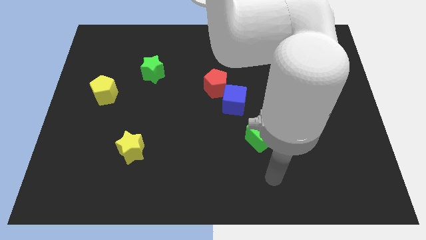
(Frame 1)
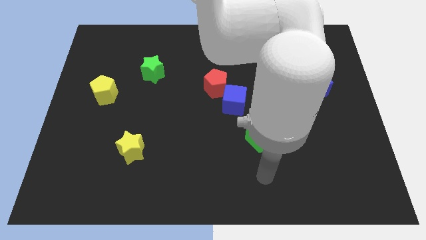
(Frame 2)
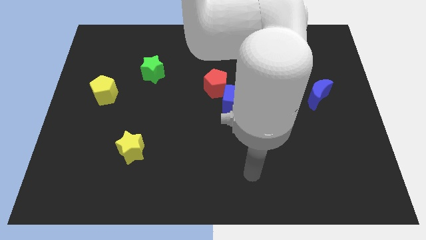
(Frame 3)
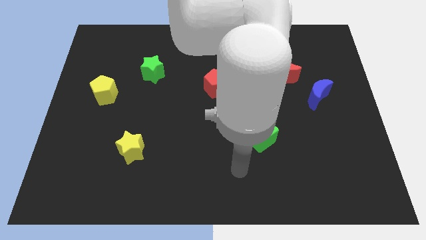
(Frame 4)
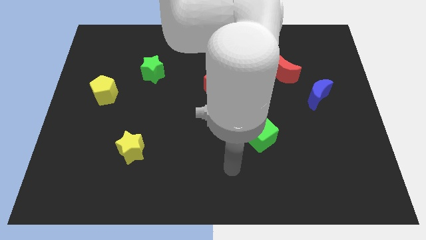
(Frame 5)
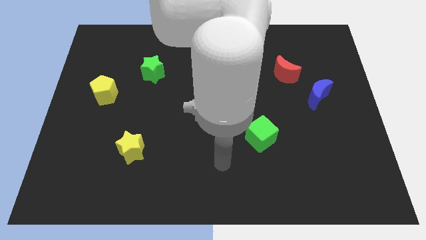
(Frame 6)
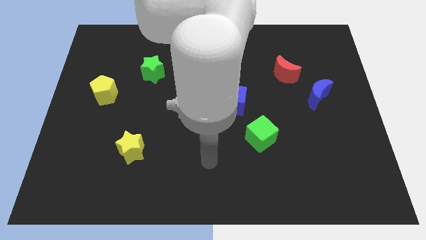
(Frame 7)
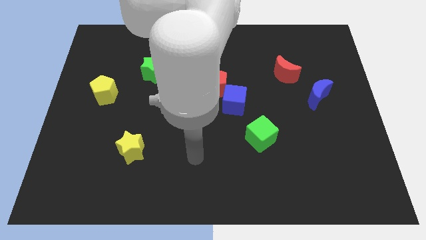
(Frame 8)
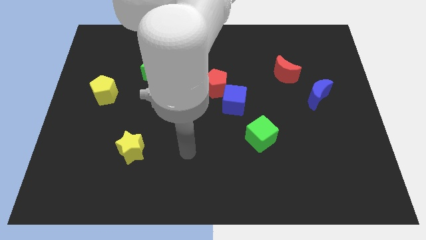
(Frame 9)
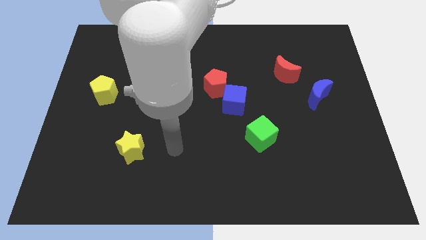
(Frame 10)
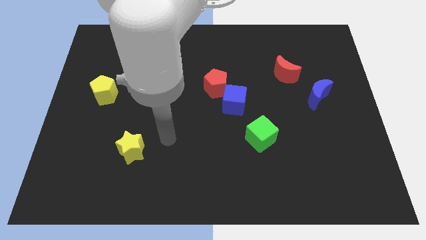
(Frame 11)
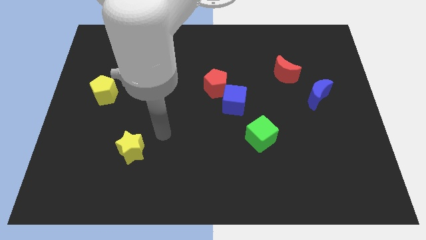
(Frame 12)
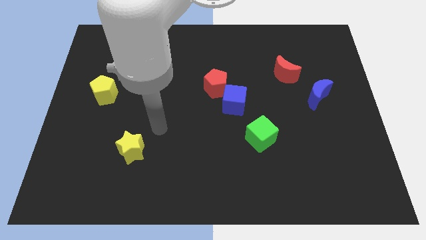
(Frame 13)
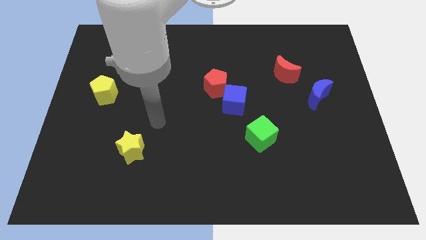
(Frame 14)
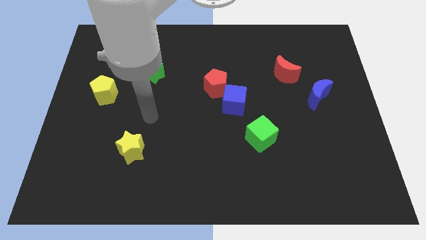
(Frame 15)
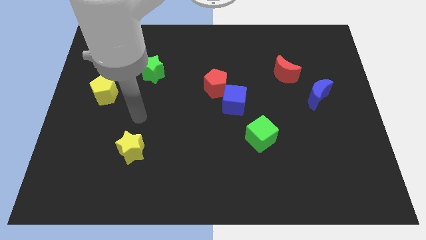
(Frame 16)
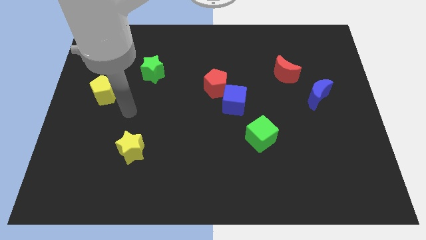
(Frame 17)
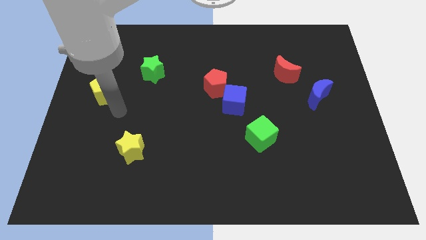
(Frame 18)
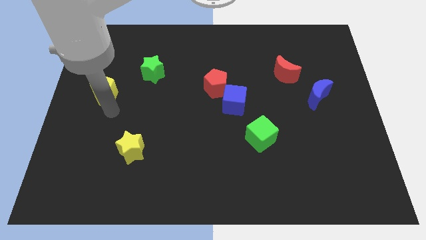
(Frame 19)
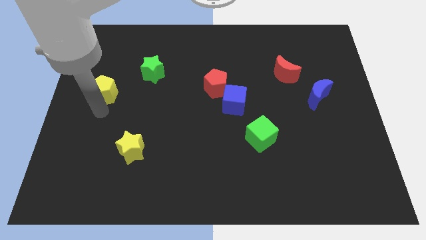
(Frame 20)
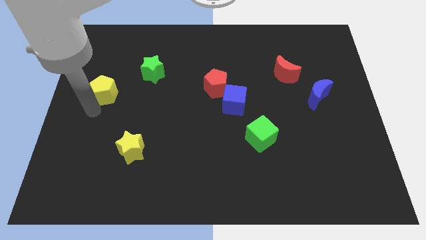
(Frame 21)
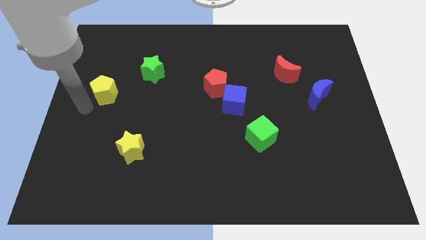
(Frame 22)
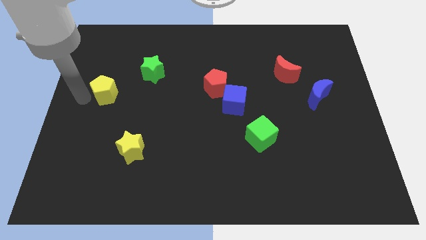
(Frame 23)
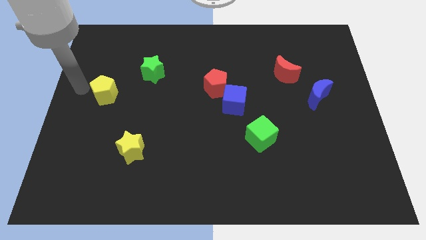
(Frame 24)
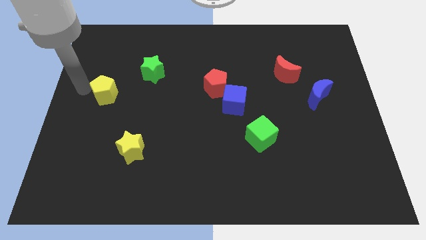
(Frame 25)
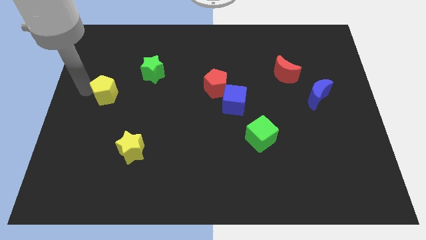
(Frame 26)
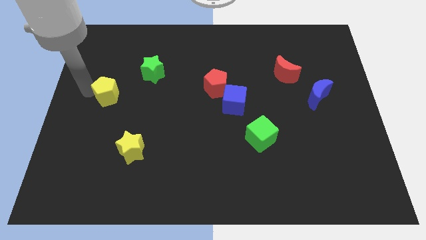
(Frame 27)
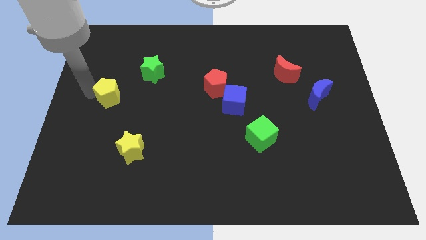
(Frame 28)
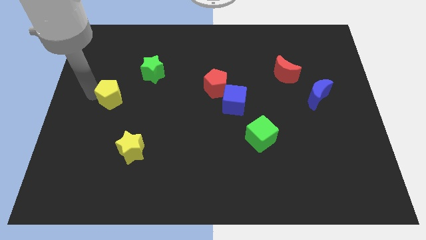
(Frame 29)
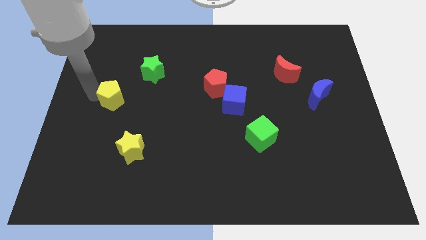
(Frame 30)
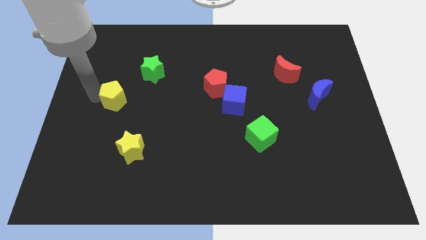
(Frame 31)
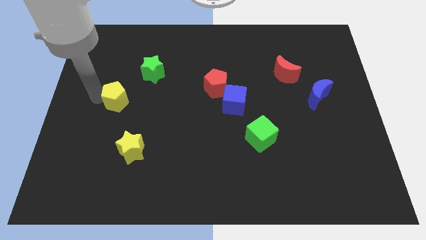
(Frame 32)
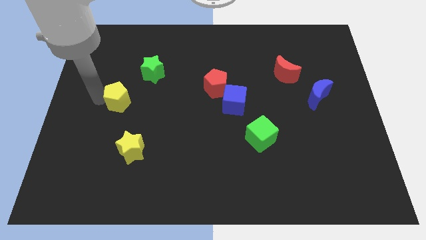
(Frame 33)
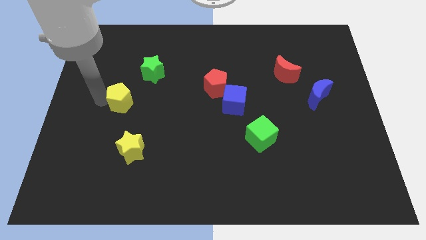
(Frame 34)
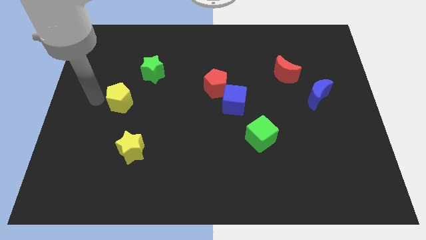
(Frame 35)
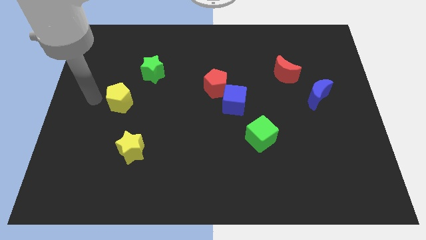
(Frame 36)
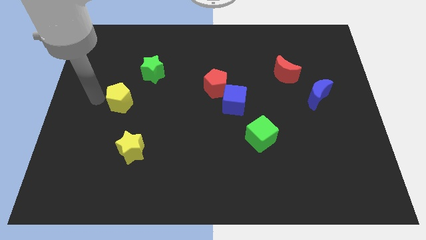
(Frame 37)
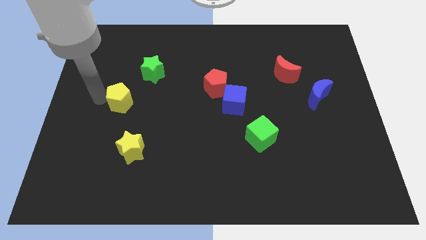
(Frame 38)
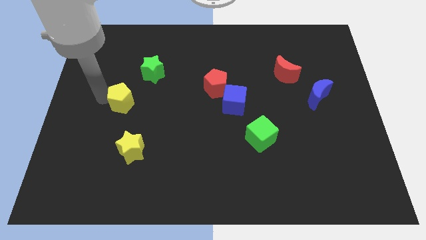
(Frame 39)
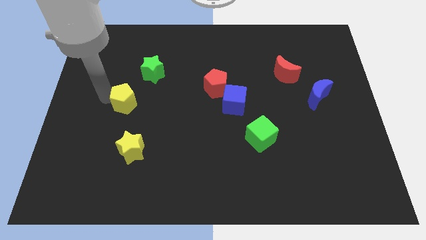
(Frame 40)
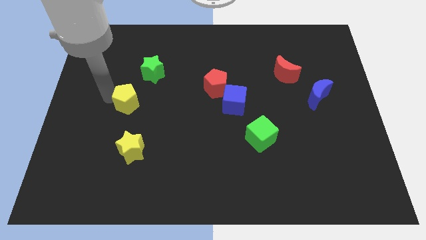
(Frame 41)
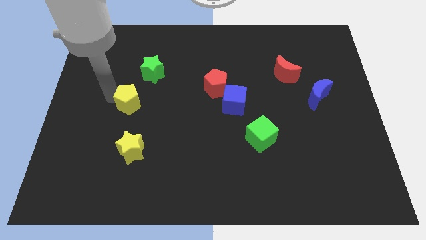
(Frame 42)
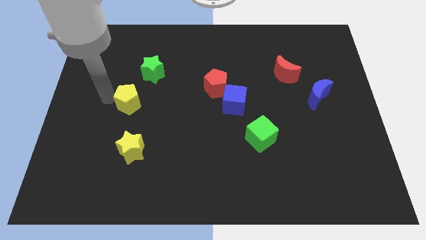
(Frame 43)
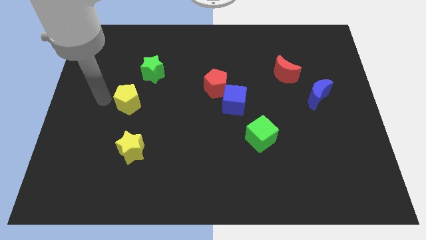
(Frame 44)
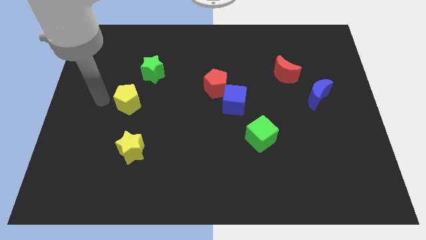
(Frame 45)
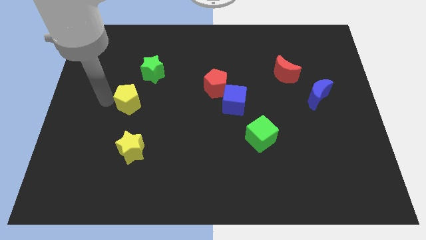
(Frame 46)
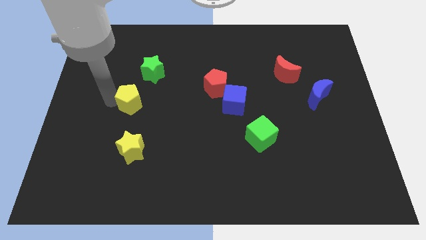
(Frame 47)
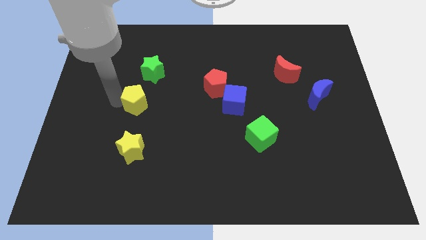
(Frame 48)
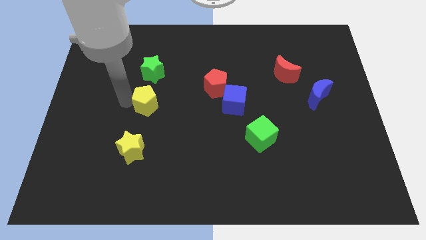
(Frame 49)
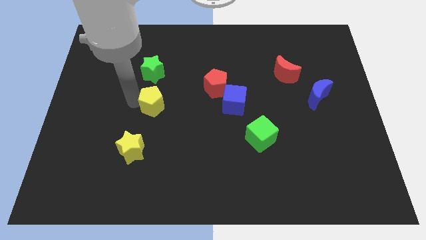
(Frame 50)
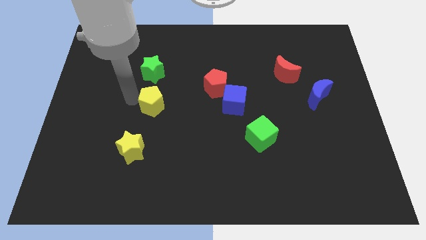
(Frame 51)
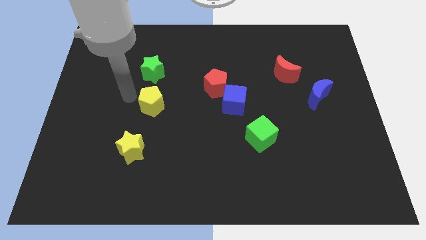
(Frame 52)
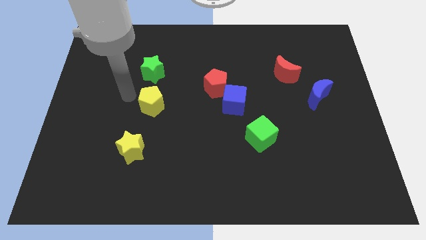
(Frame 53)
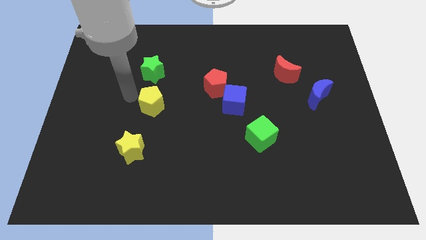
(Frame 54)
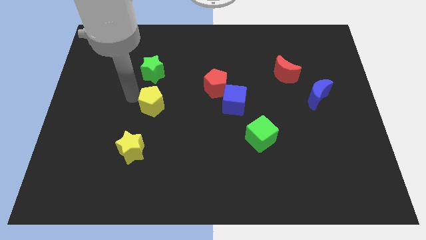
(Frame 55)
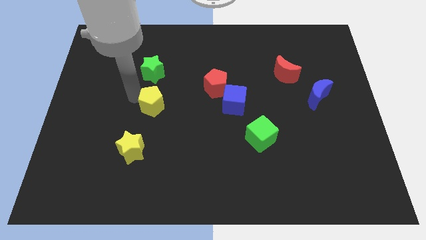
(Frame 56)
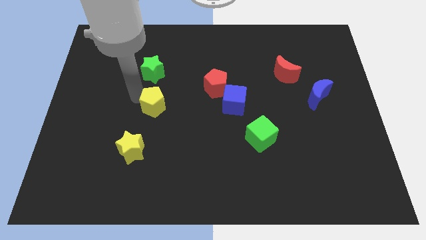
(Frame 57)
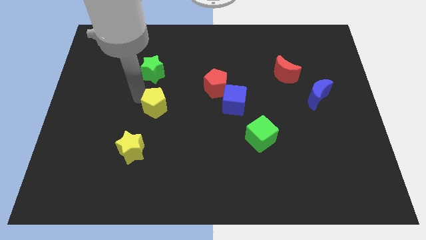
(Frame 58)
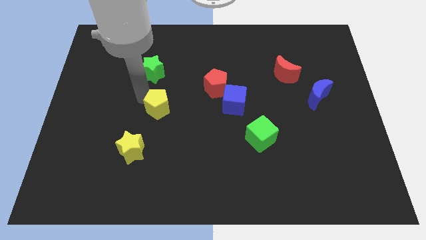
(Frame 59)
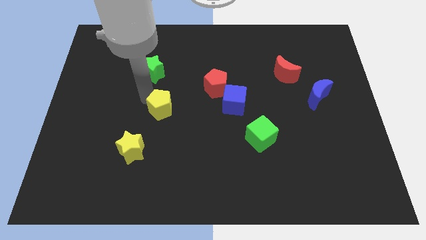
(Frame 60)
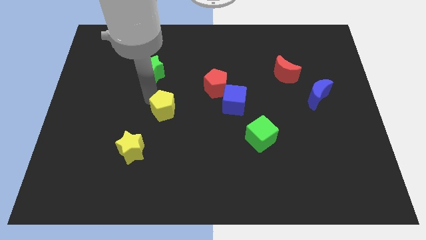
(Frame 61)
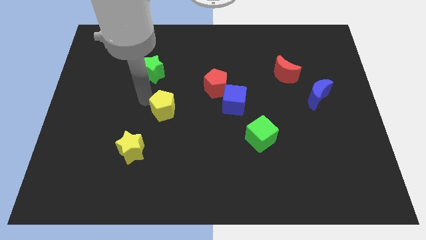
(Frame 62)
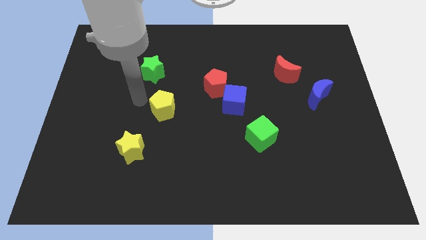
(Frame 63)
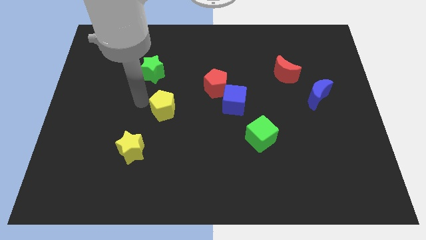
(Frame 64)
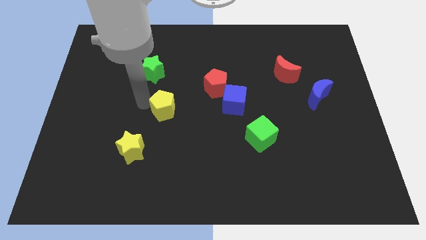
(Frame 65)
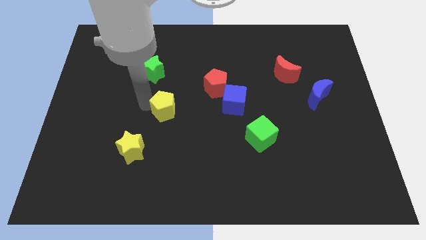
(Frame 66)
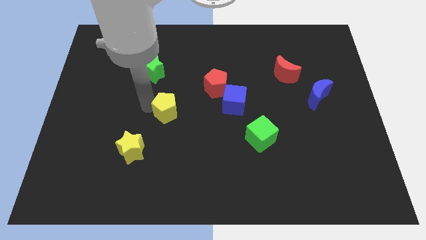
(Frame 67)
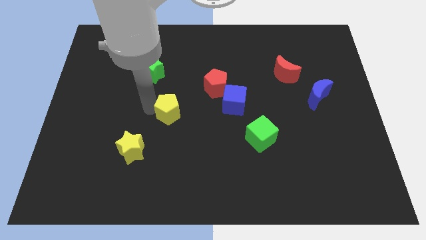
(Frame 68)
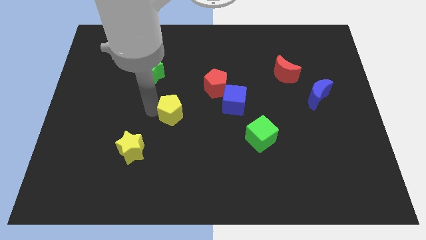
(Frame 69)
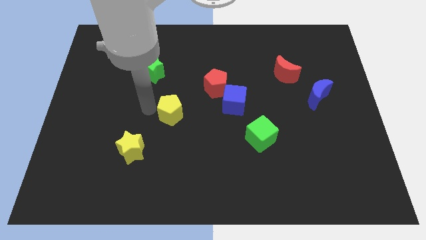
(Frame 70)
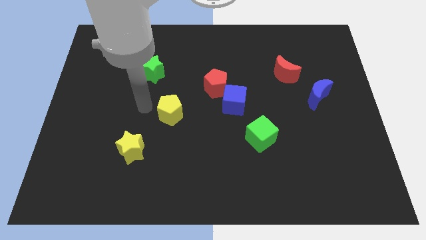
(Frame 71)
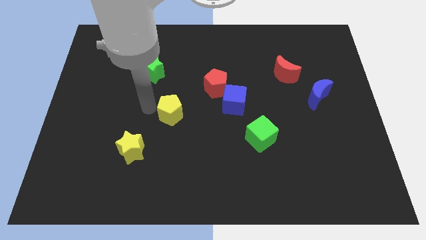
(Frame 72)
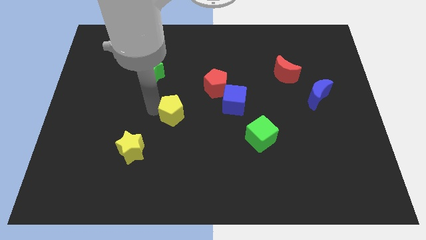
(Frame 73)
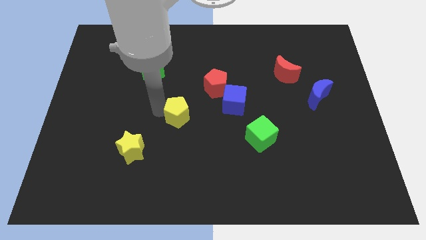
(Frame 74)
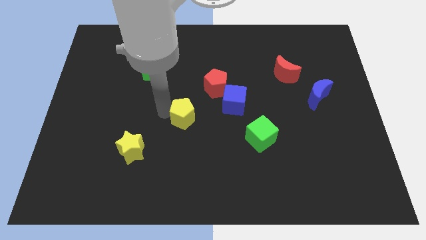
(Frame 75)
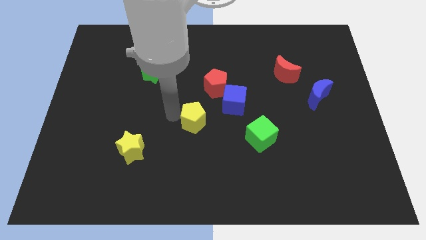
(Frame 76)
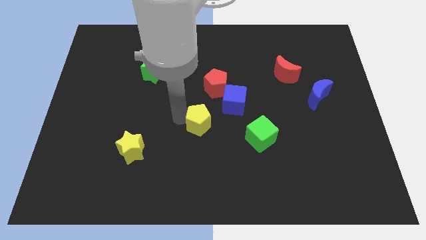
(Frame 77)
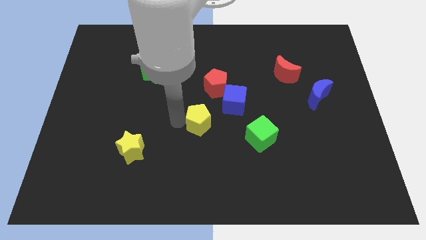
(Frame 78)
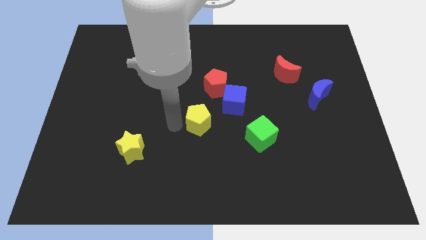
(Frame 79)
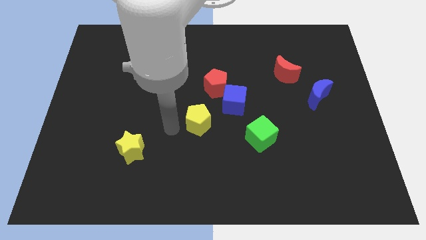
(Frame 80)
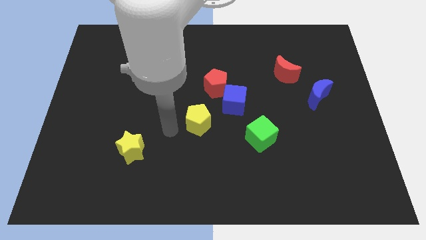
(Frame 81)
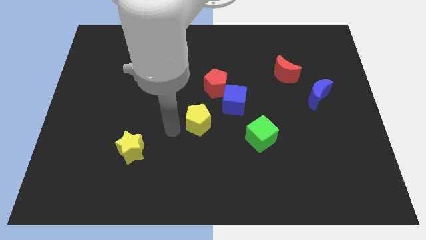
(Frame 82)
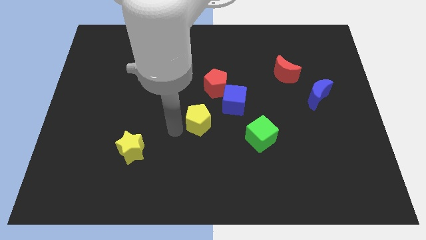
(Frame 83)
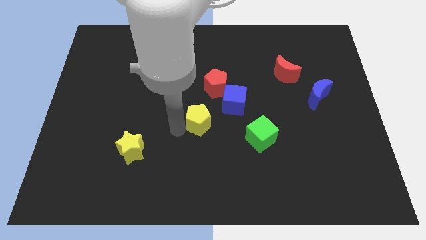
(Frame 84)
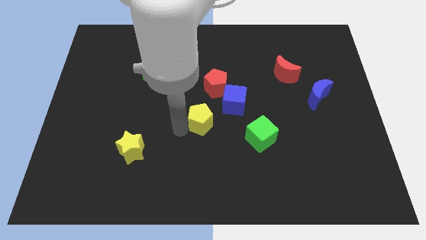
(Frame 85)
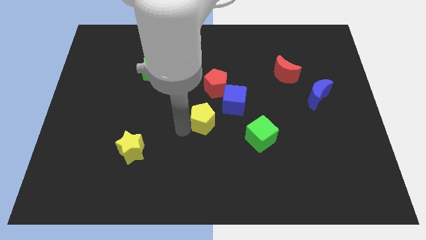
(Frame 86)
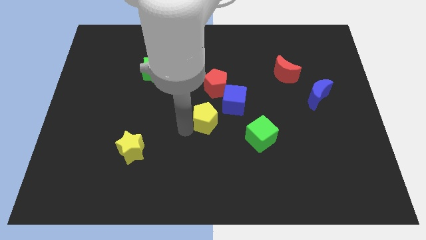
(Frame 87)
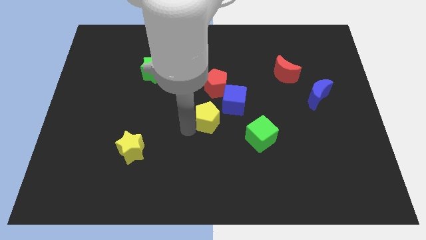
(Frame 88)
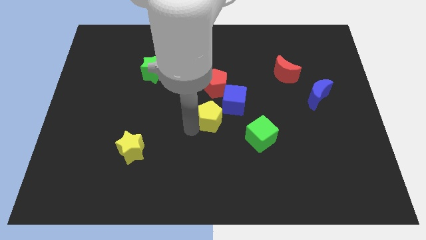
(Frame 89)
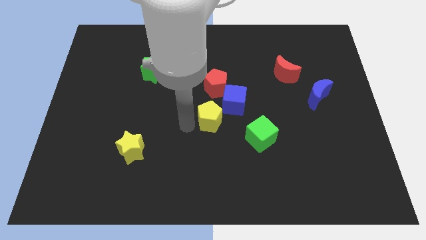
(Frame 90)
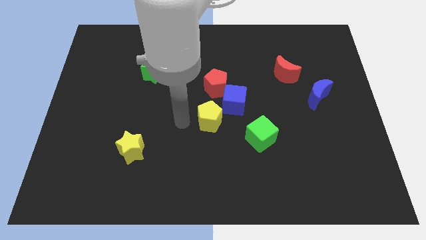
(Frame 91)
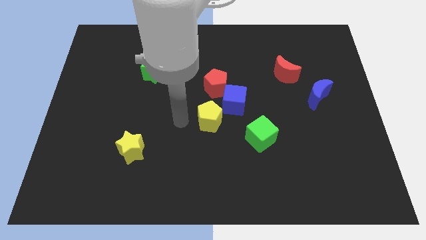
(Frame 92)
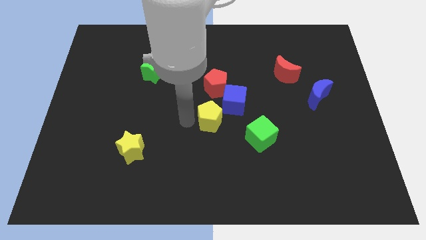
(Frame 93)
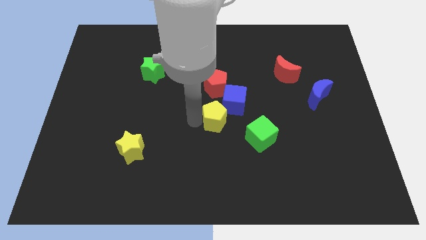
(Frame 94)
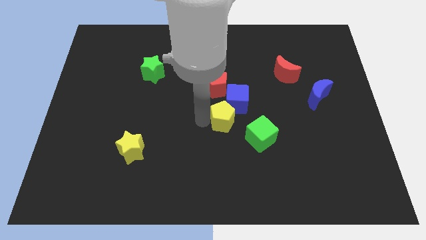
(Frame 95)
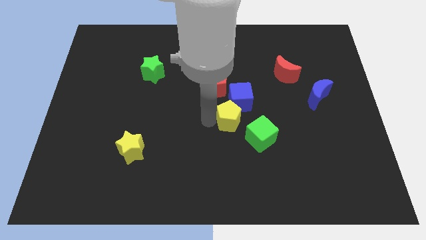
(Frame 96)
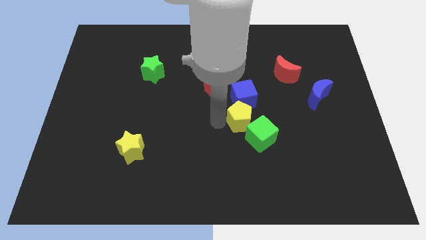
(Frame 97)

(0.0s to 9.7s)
move the yellow pentagon above the green cube
